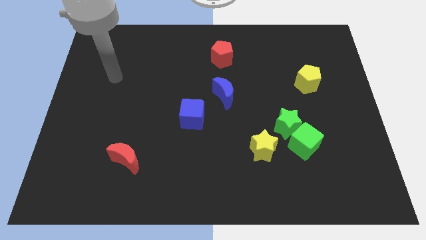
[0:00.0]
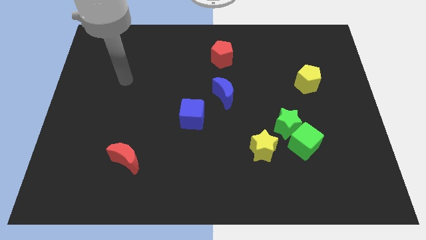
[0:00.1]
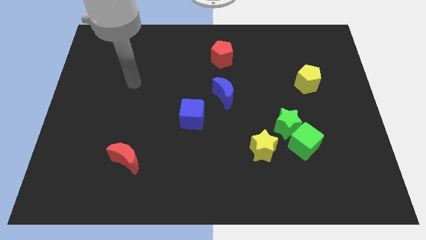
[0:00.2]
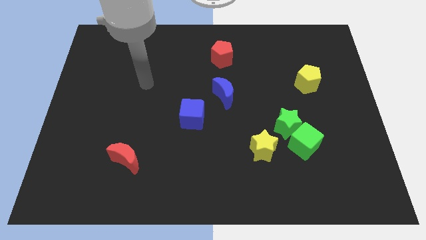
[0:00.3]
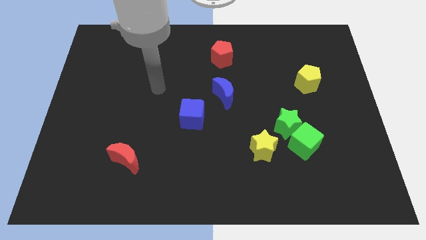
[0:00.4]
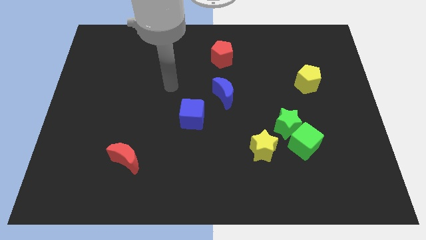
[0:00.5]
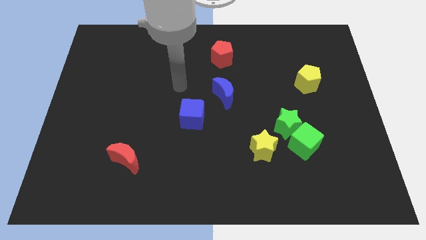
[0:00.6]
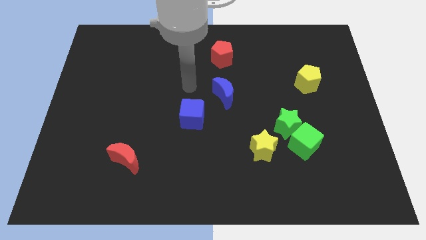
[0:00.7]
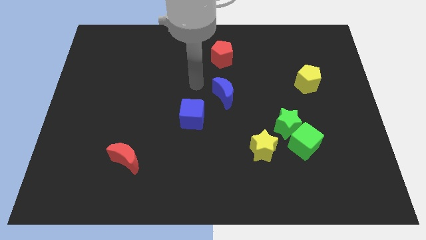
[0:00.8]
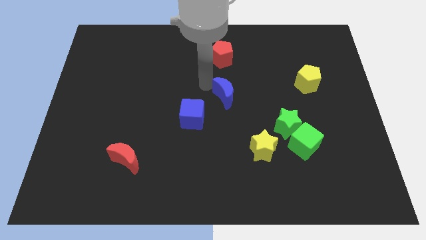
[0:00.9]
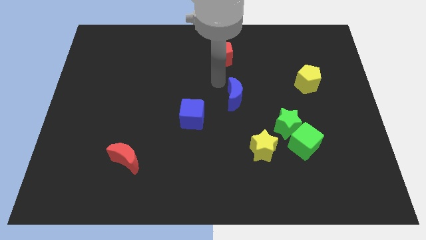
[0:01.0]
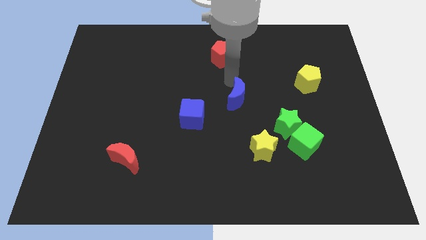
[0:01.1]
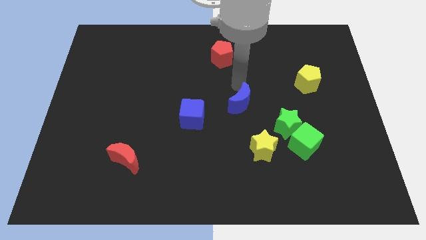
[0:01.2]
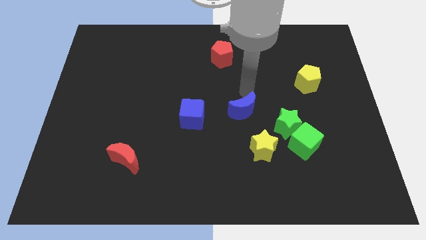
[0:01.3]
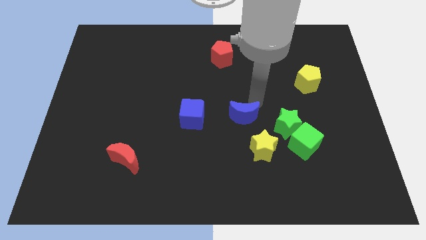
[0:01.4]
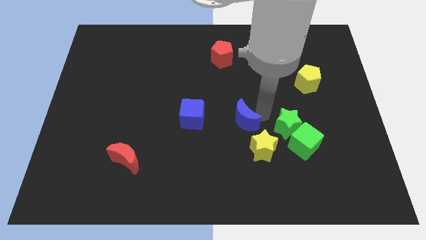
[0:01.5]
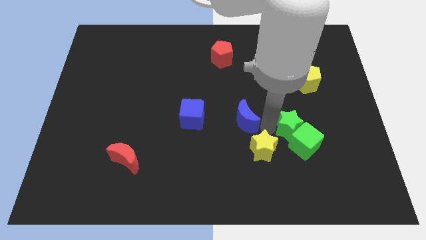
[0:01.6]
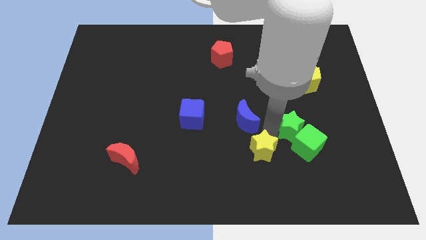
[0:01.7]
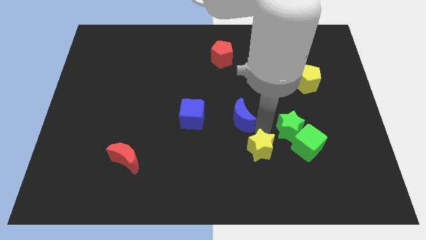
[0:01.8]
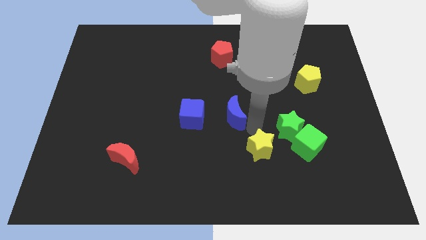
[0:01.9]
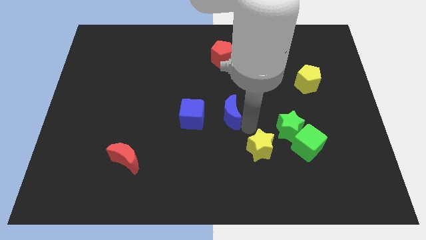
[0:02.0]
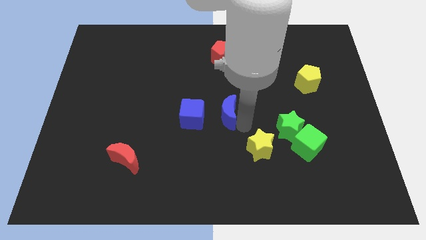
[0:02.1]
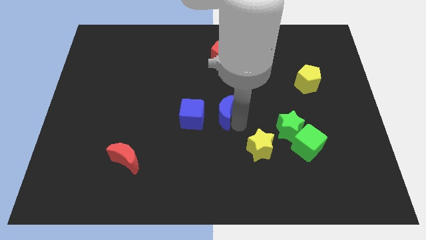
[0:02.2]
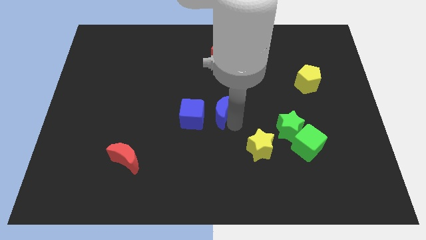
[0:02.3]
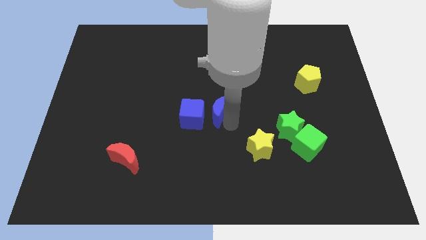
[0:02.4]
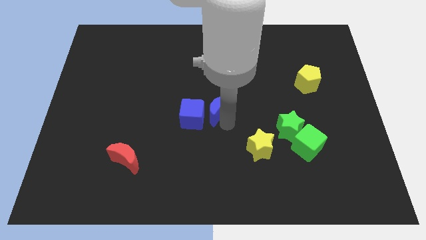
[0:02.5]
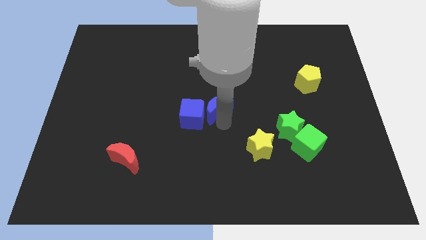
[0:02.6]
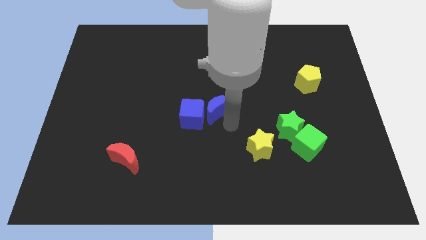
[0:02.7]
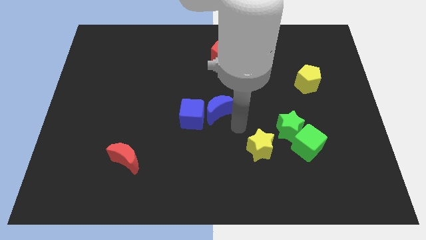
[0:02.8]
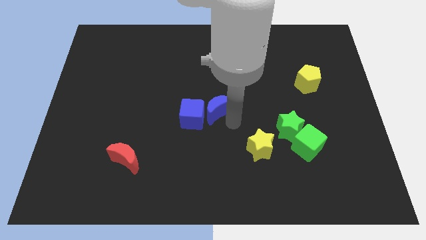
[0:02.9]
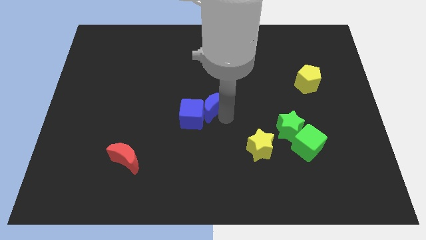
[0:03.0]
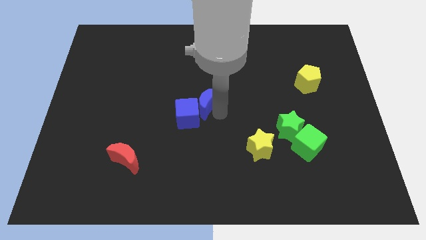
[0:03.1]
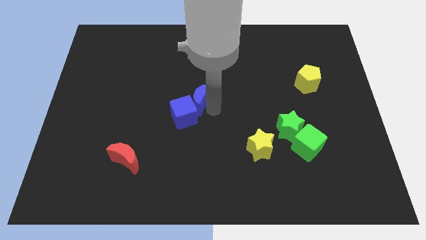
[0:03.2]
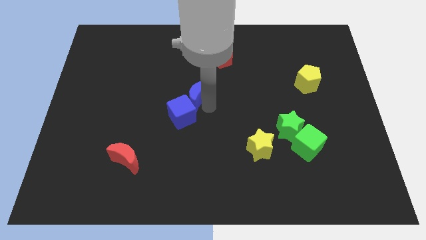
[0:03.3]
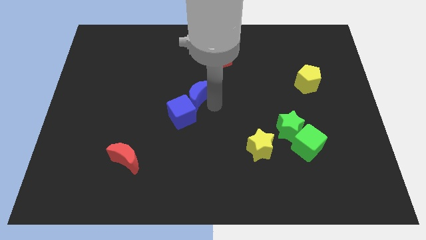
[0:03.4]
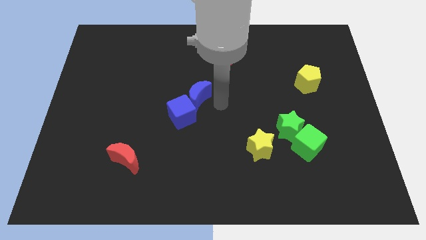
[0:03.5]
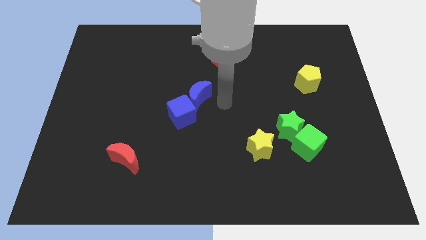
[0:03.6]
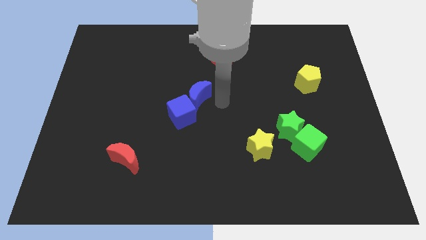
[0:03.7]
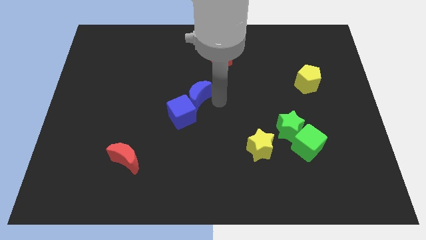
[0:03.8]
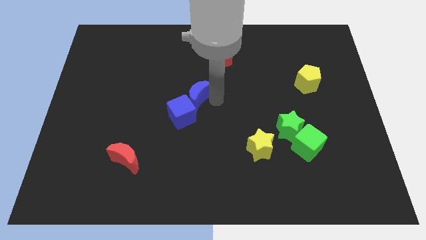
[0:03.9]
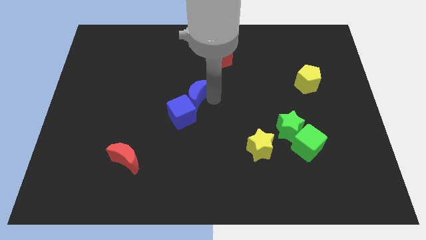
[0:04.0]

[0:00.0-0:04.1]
slightly move the blue moon to the left

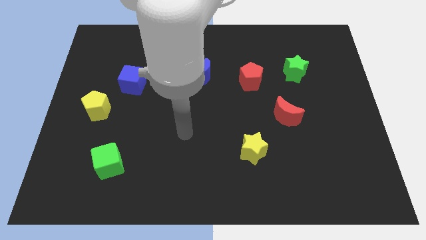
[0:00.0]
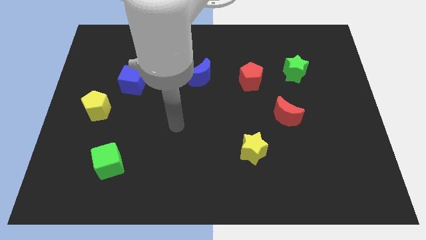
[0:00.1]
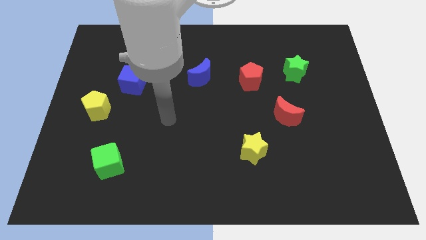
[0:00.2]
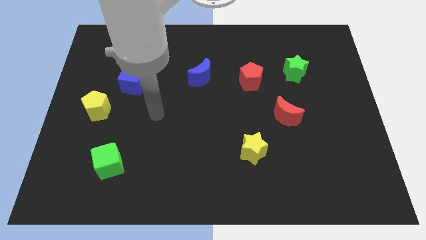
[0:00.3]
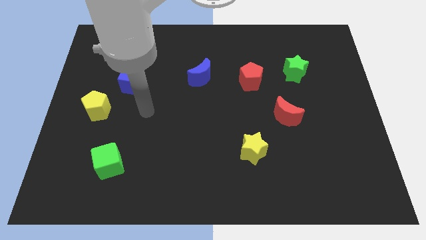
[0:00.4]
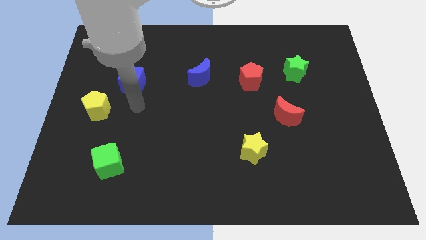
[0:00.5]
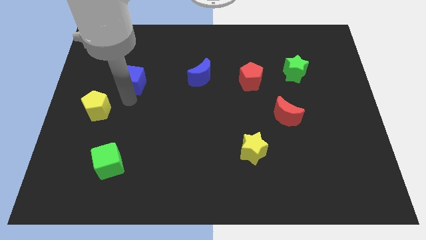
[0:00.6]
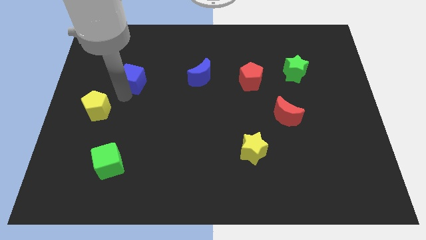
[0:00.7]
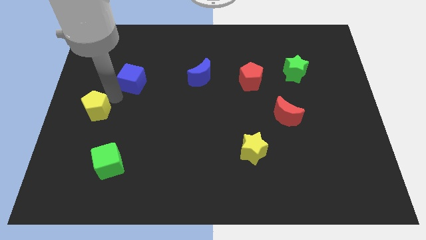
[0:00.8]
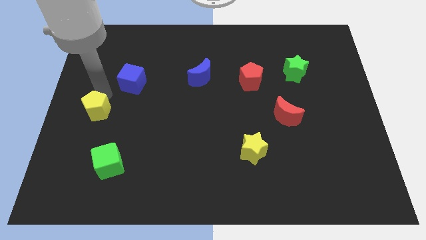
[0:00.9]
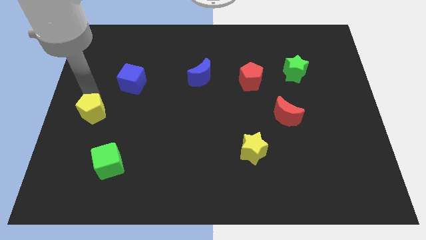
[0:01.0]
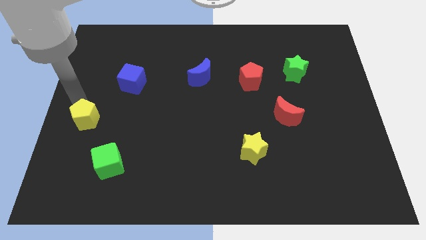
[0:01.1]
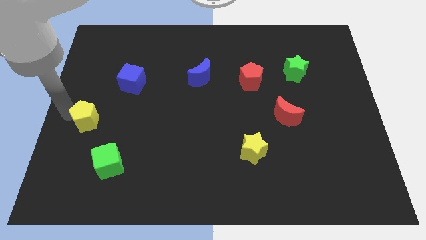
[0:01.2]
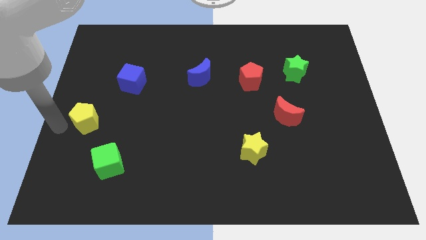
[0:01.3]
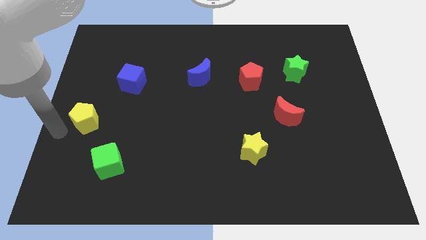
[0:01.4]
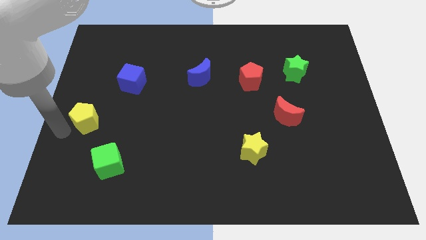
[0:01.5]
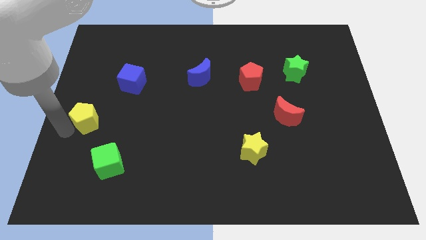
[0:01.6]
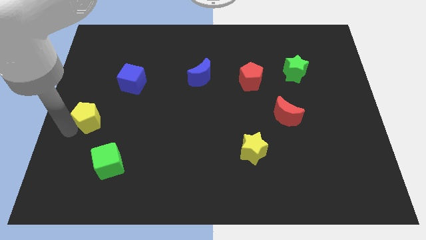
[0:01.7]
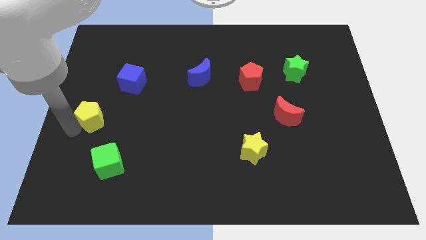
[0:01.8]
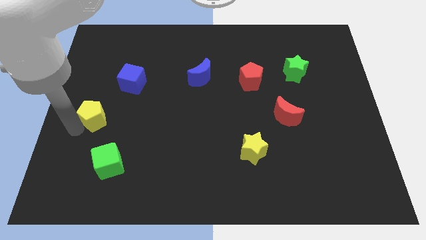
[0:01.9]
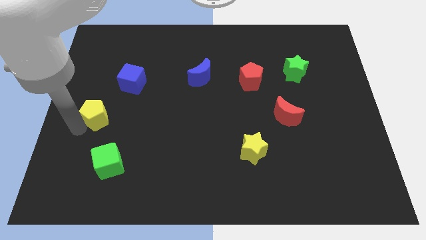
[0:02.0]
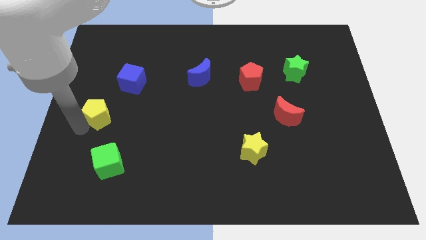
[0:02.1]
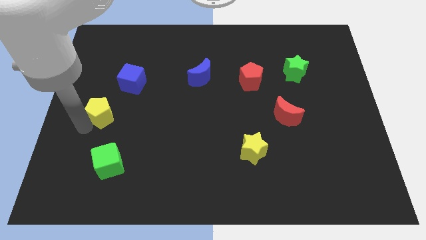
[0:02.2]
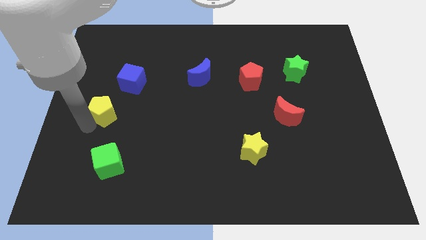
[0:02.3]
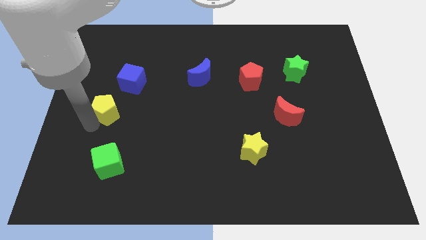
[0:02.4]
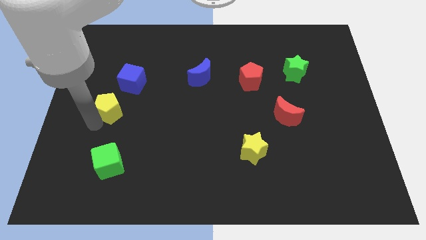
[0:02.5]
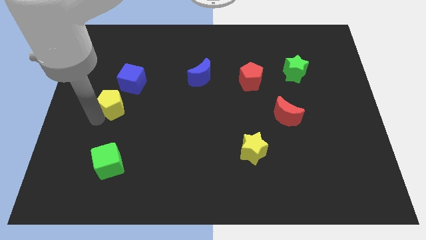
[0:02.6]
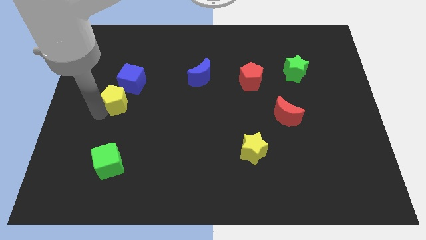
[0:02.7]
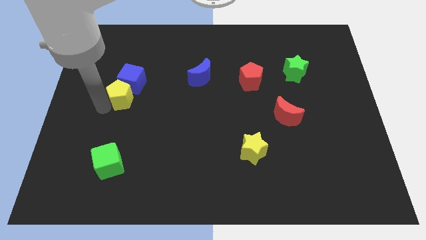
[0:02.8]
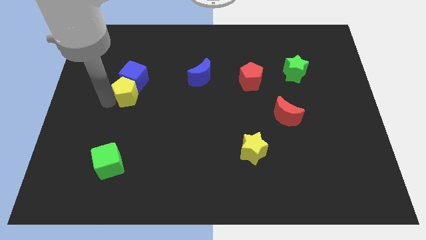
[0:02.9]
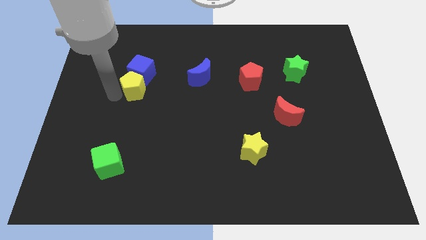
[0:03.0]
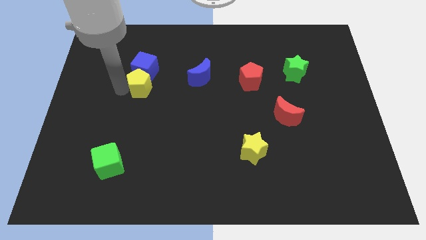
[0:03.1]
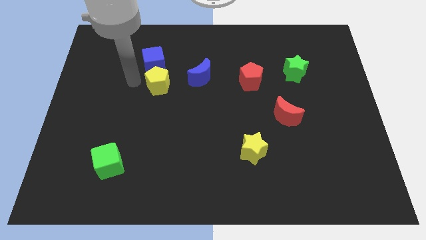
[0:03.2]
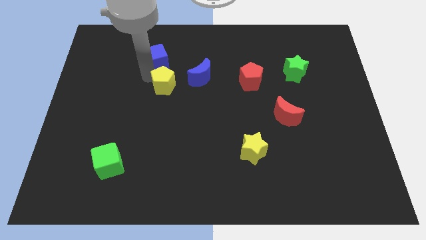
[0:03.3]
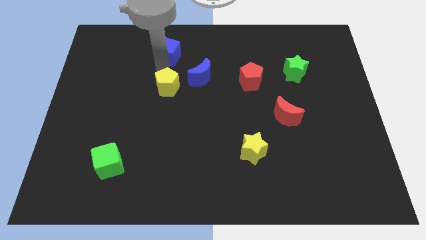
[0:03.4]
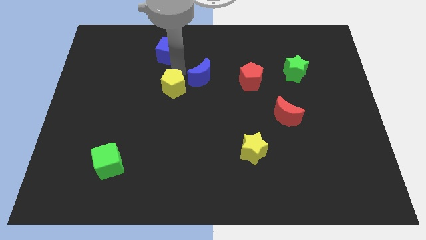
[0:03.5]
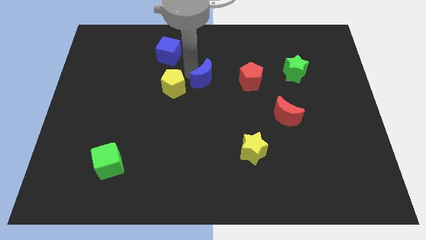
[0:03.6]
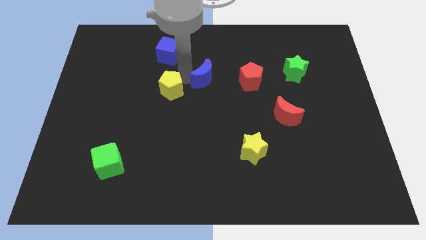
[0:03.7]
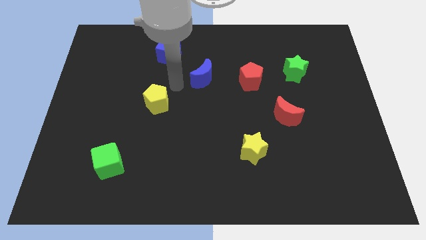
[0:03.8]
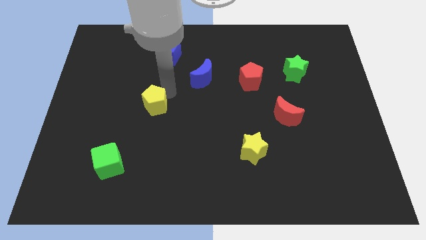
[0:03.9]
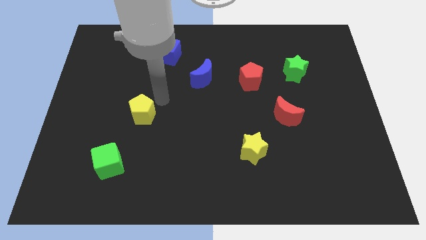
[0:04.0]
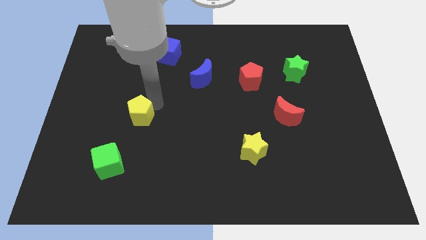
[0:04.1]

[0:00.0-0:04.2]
move the yellow pentagon a little bit down and then to the right
